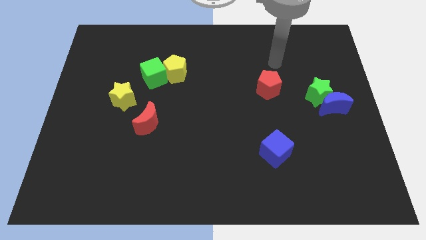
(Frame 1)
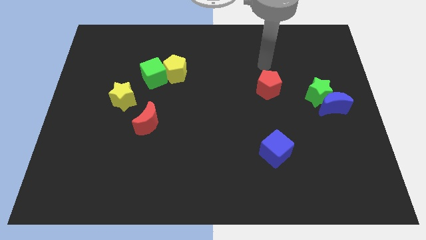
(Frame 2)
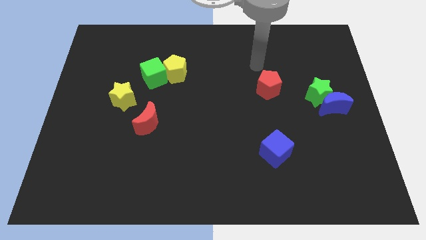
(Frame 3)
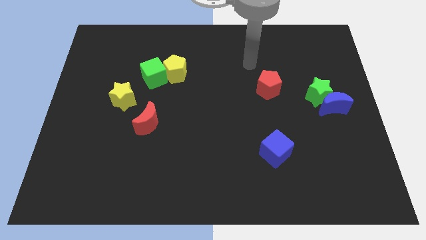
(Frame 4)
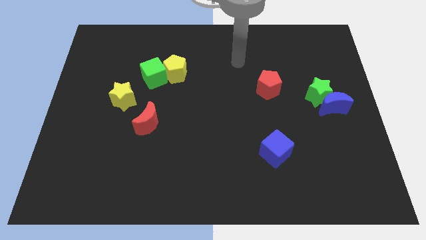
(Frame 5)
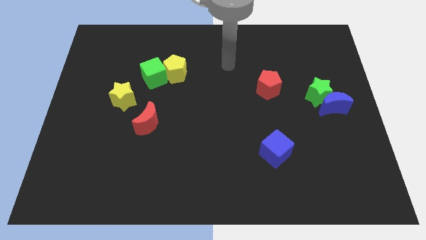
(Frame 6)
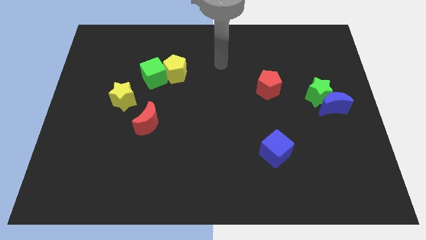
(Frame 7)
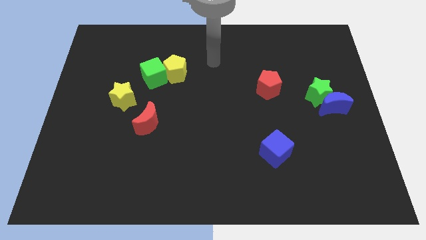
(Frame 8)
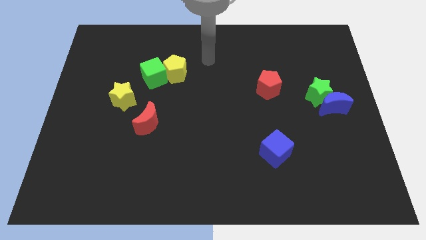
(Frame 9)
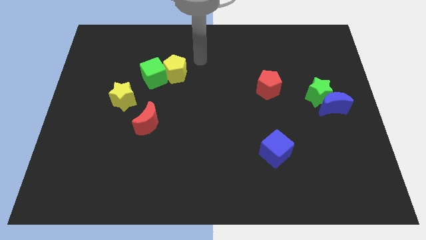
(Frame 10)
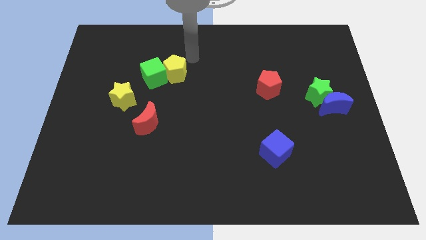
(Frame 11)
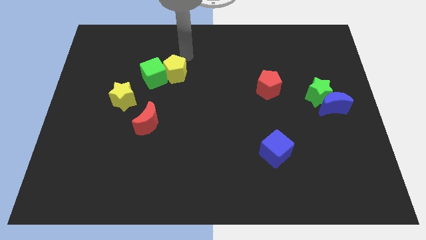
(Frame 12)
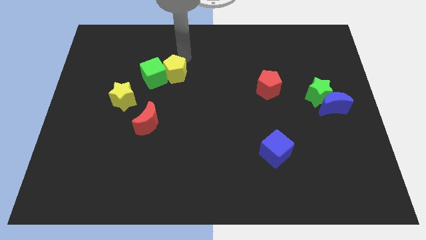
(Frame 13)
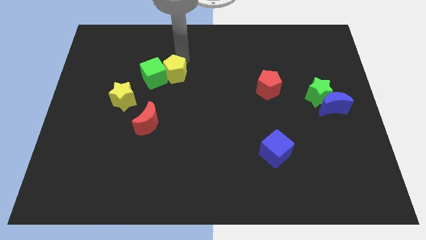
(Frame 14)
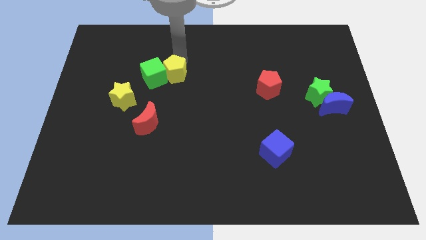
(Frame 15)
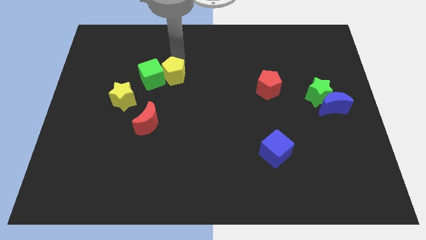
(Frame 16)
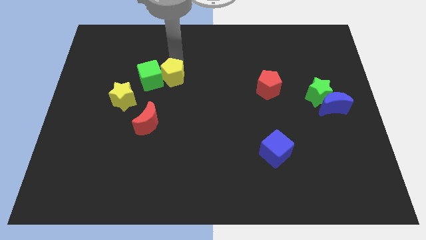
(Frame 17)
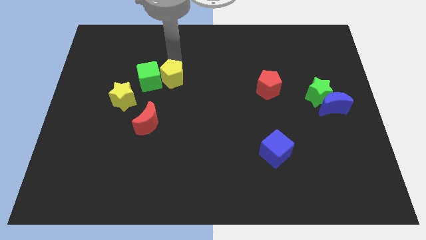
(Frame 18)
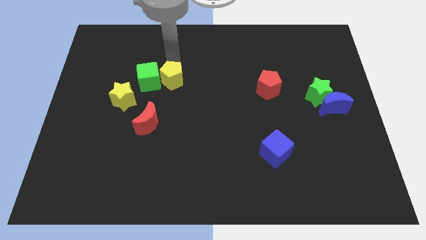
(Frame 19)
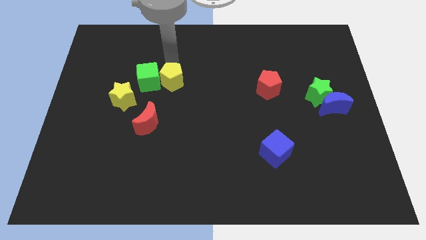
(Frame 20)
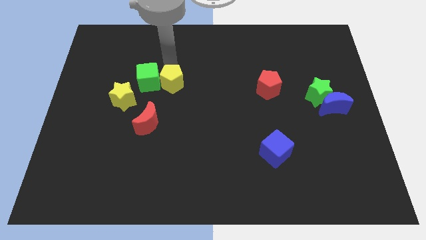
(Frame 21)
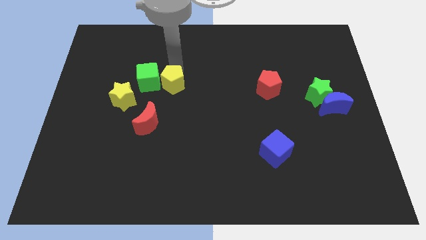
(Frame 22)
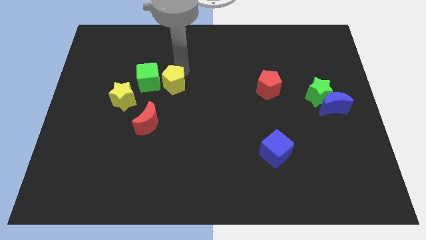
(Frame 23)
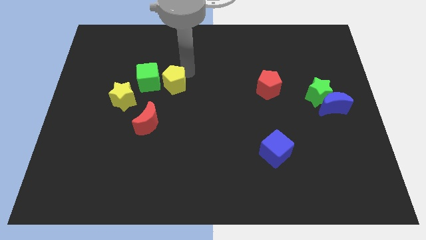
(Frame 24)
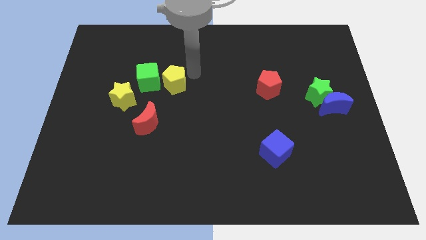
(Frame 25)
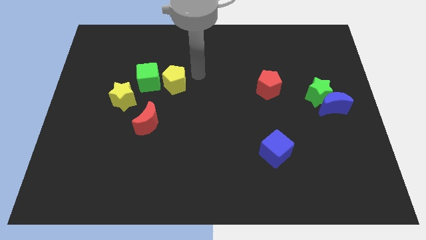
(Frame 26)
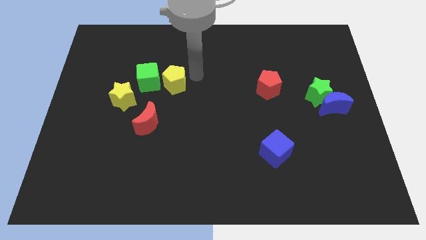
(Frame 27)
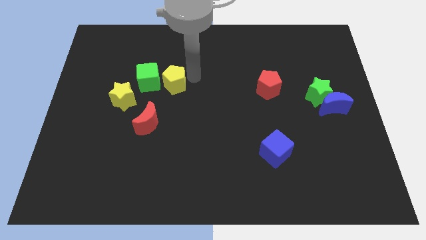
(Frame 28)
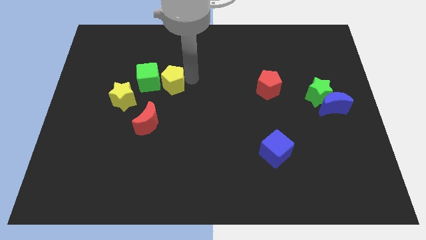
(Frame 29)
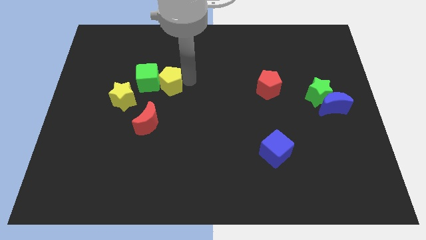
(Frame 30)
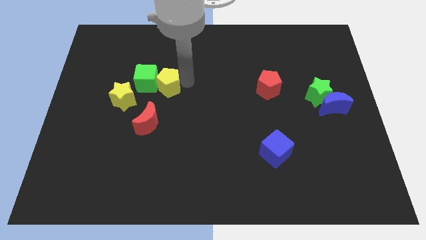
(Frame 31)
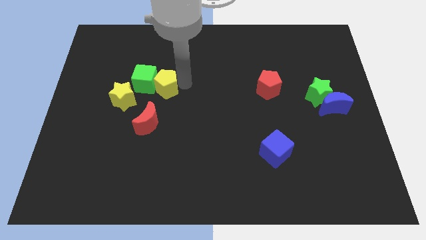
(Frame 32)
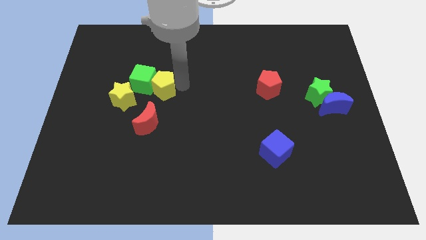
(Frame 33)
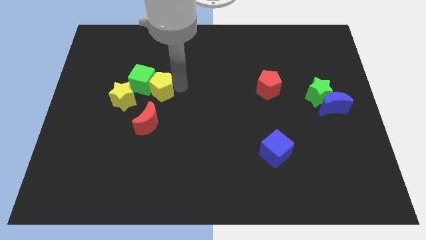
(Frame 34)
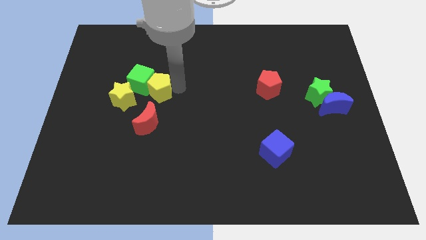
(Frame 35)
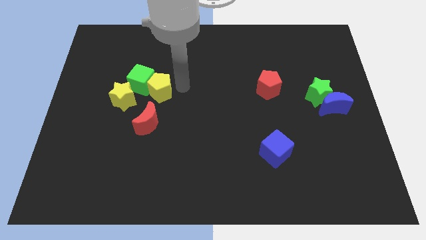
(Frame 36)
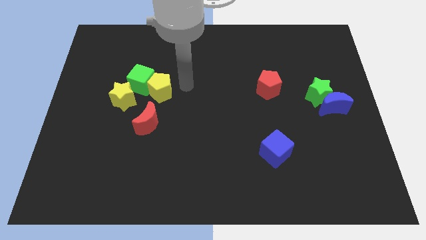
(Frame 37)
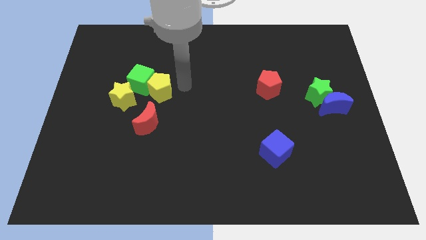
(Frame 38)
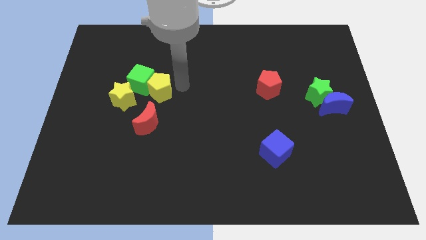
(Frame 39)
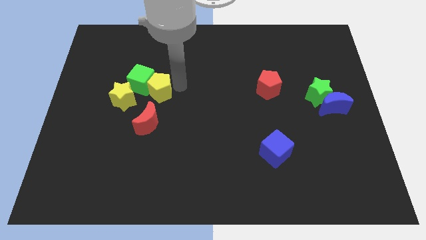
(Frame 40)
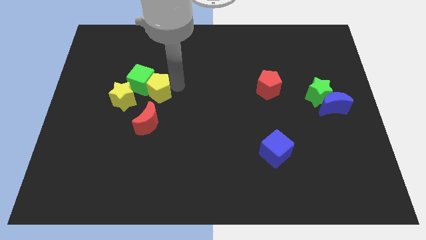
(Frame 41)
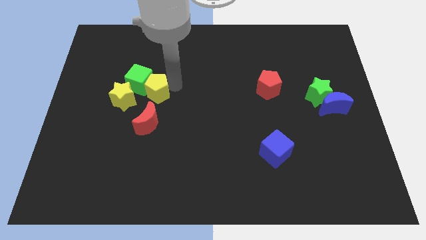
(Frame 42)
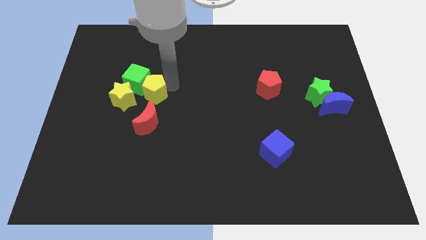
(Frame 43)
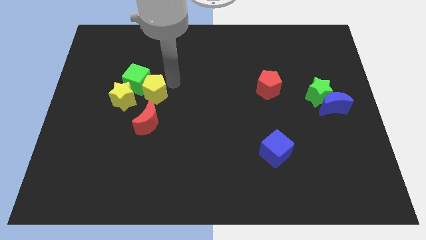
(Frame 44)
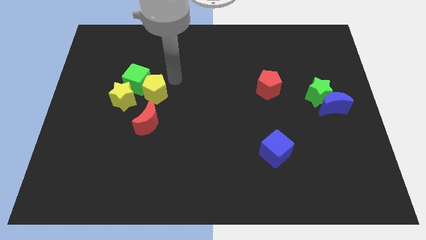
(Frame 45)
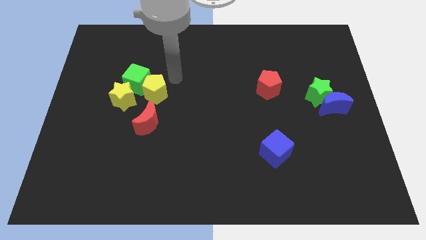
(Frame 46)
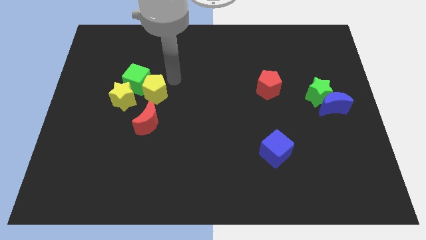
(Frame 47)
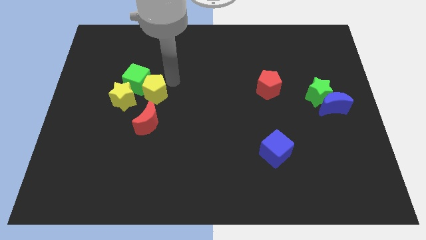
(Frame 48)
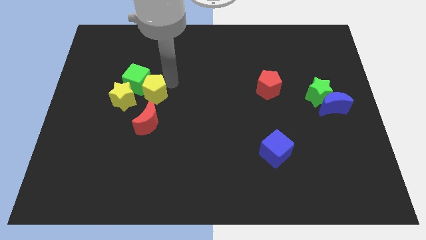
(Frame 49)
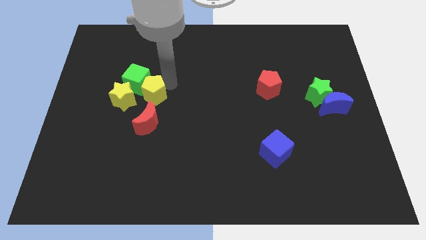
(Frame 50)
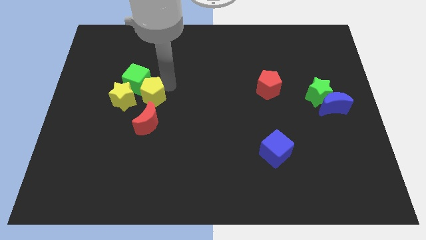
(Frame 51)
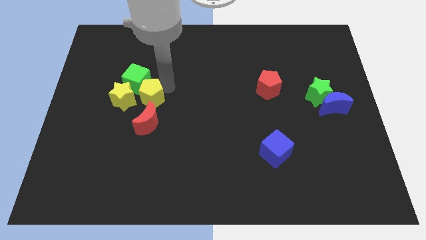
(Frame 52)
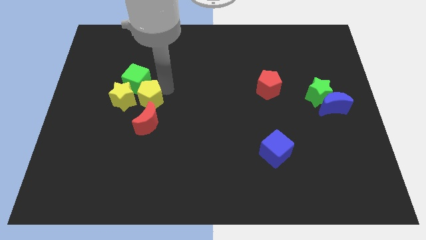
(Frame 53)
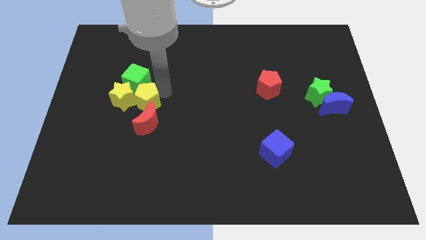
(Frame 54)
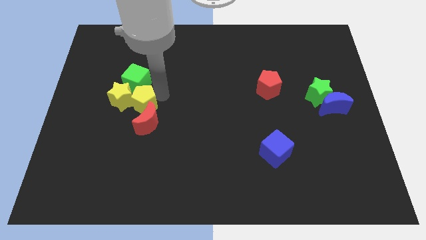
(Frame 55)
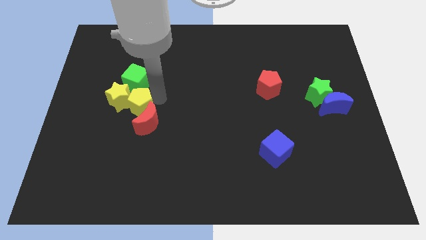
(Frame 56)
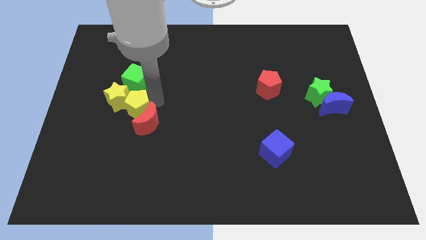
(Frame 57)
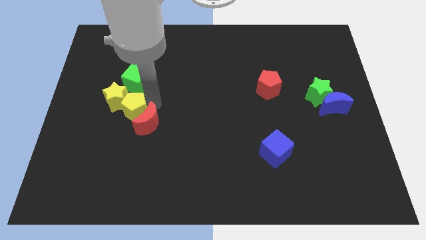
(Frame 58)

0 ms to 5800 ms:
push the yellow pentagon below the yellow star

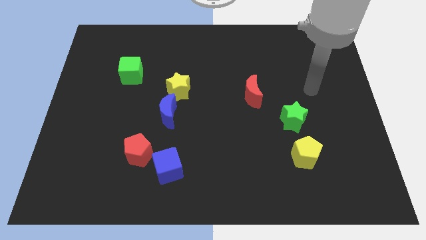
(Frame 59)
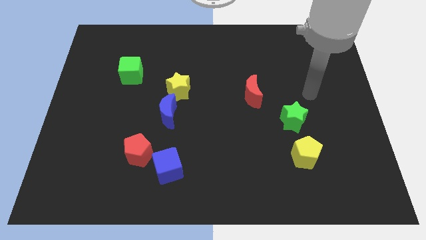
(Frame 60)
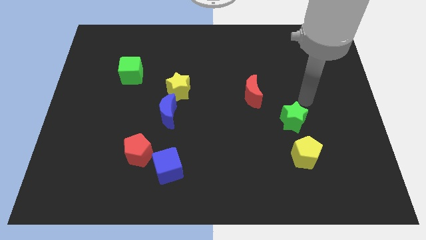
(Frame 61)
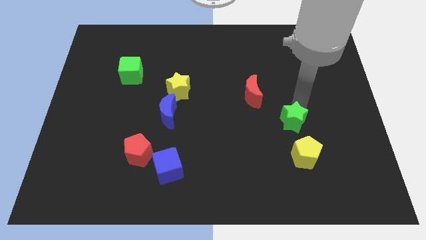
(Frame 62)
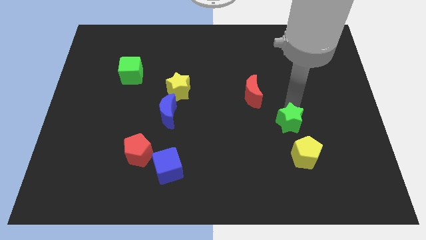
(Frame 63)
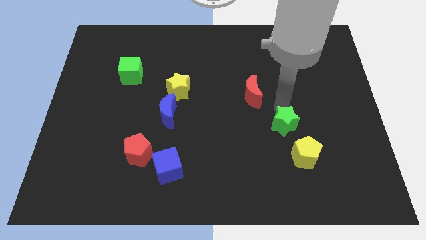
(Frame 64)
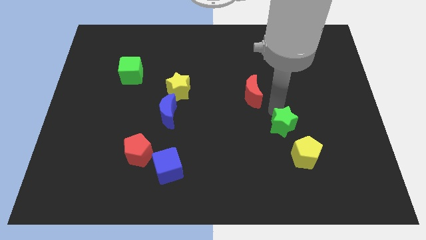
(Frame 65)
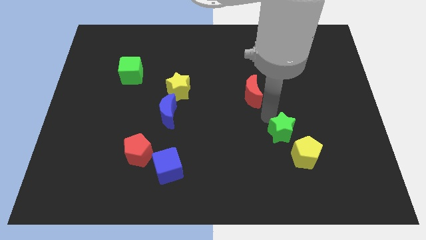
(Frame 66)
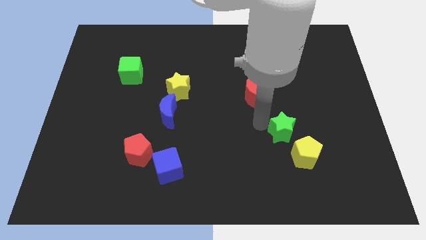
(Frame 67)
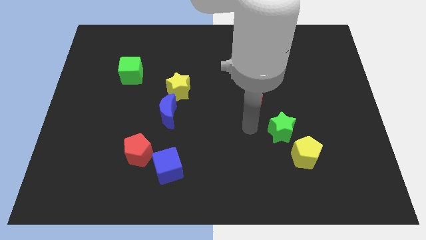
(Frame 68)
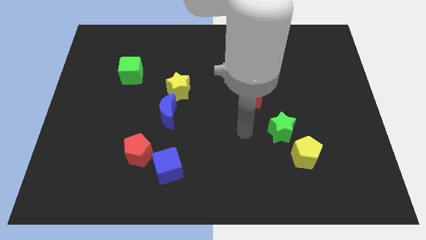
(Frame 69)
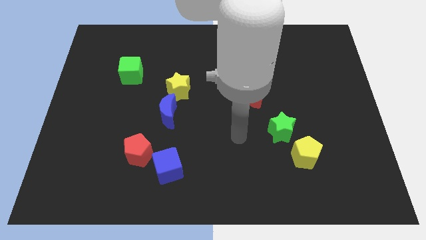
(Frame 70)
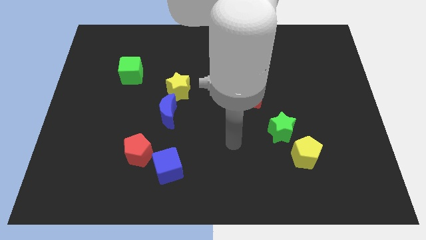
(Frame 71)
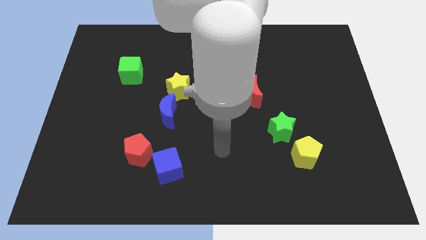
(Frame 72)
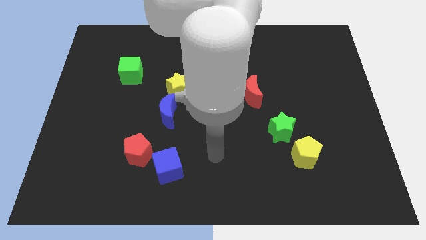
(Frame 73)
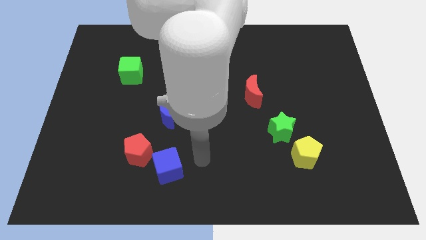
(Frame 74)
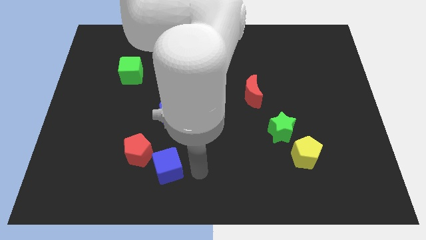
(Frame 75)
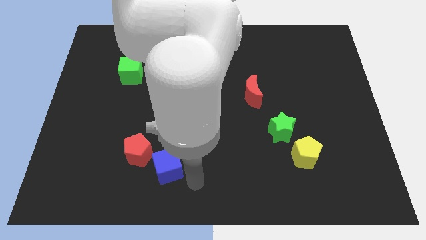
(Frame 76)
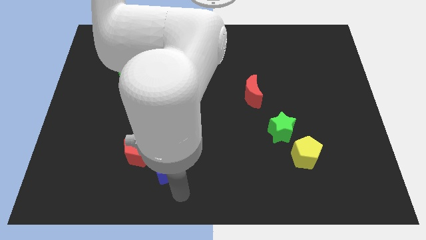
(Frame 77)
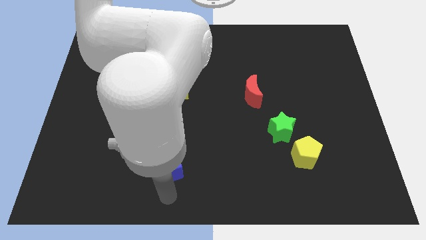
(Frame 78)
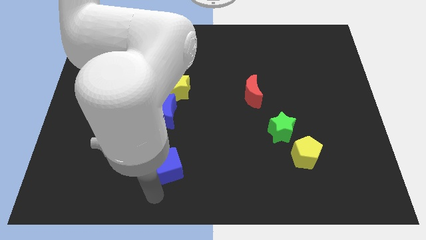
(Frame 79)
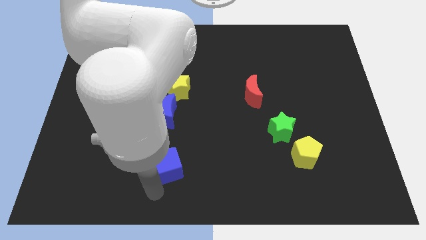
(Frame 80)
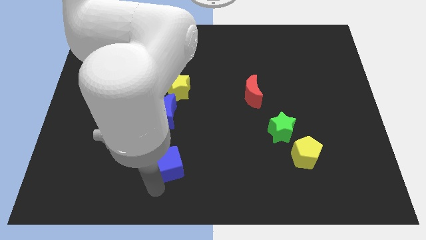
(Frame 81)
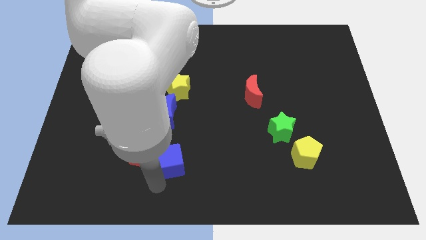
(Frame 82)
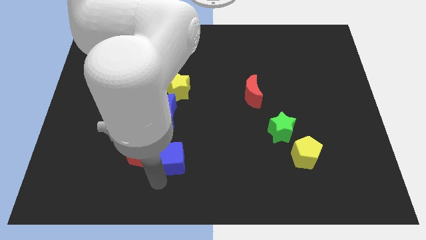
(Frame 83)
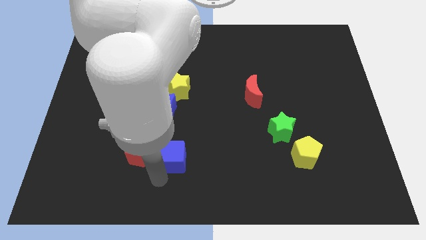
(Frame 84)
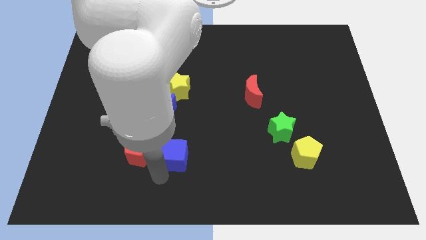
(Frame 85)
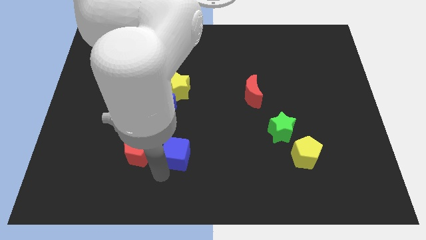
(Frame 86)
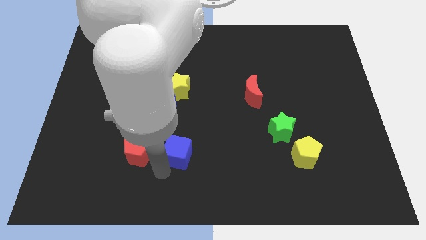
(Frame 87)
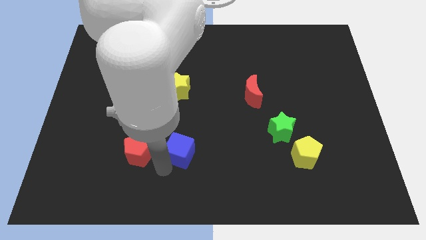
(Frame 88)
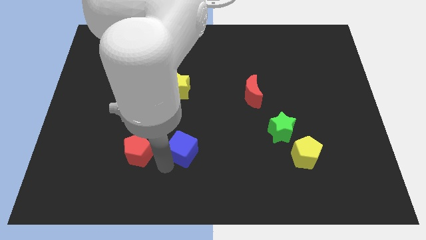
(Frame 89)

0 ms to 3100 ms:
move the blue cube to the bottom right of the blue moon
